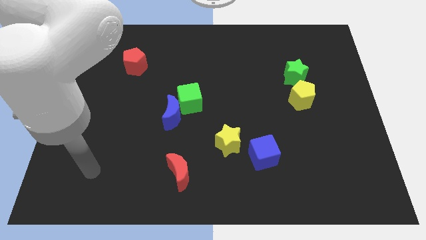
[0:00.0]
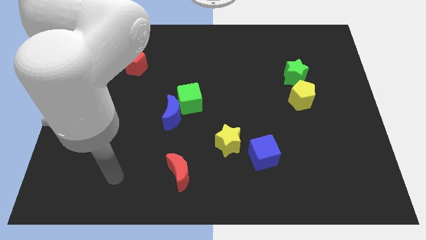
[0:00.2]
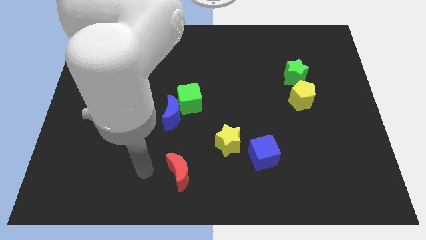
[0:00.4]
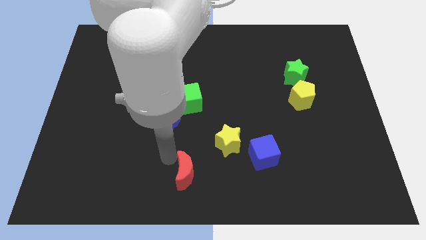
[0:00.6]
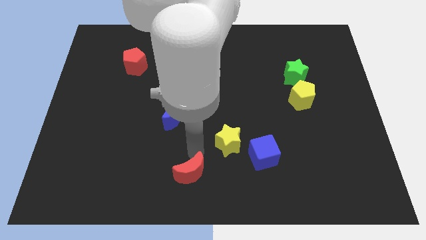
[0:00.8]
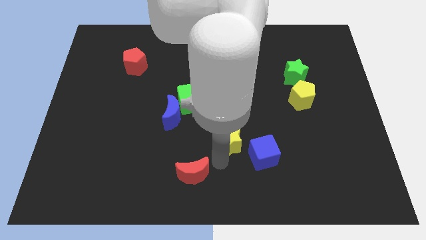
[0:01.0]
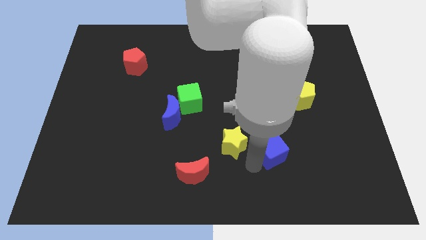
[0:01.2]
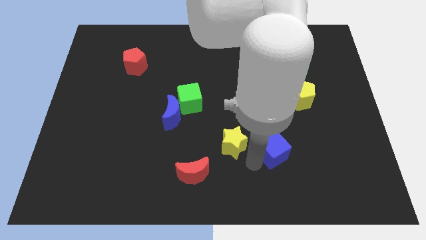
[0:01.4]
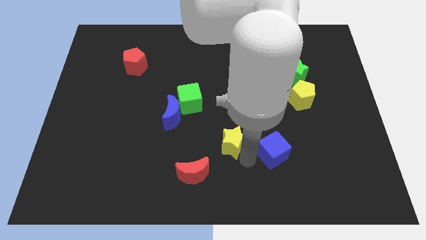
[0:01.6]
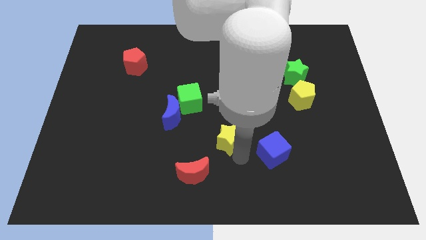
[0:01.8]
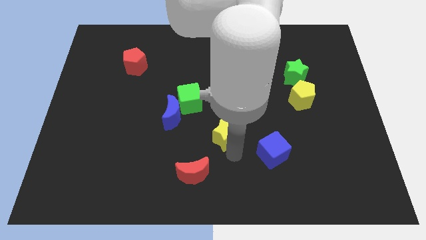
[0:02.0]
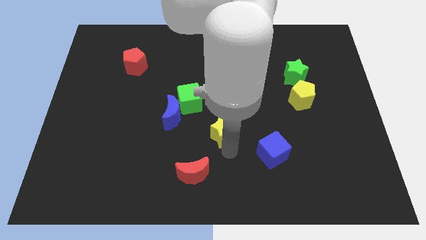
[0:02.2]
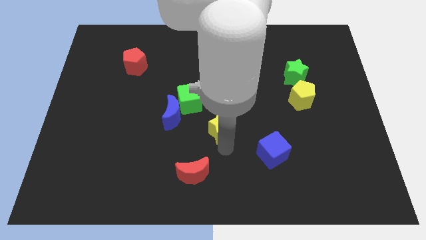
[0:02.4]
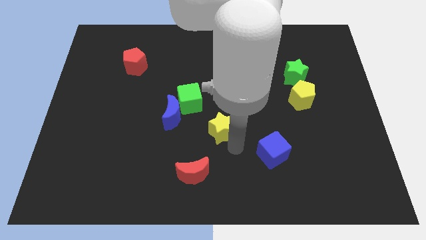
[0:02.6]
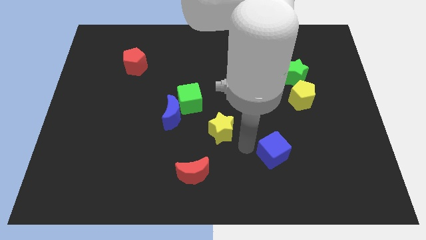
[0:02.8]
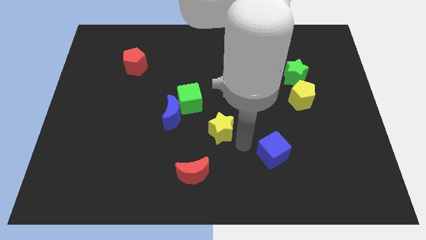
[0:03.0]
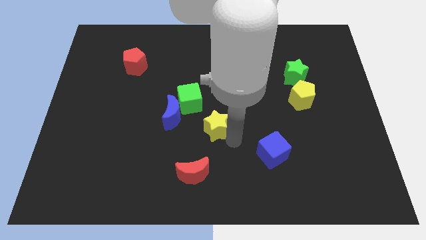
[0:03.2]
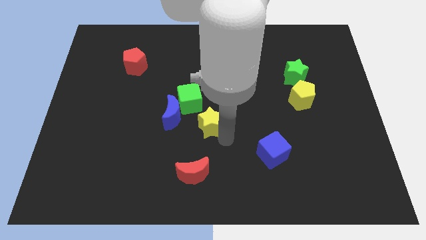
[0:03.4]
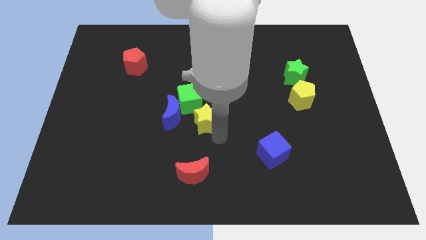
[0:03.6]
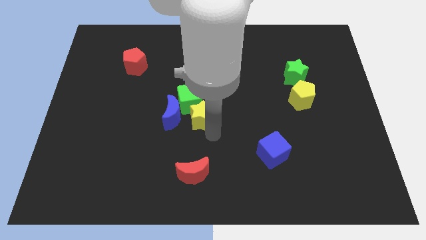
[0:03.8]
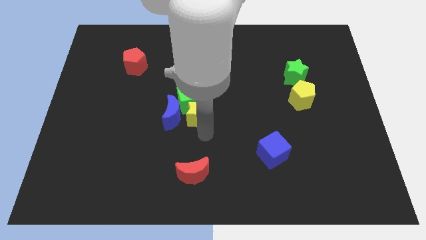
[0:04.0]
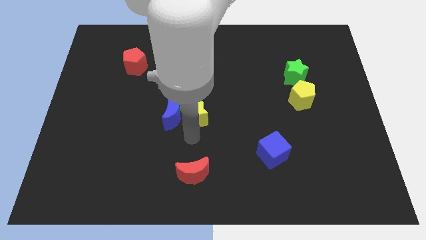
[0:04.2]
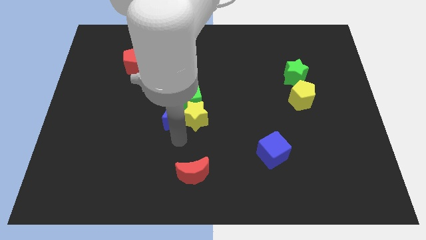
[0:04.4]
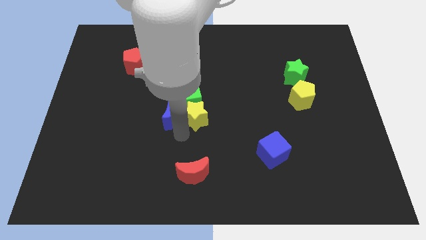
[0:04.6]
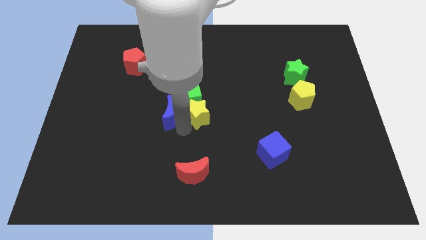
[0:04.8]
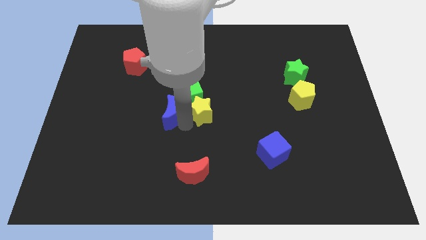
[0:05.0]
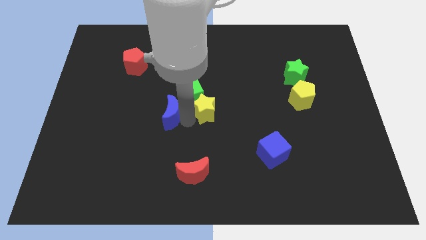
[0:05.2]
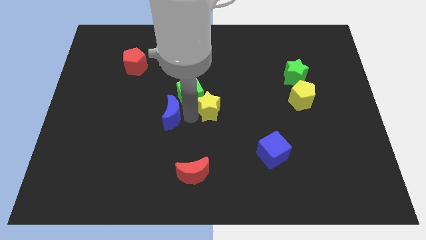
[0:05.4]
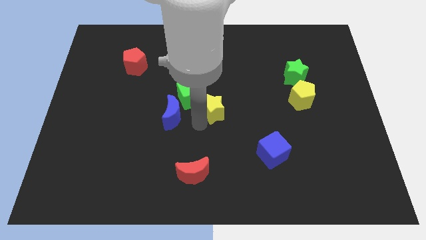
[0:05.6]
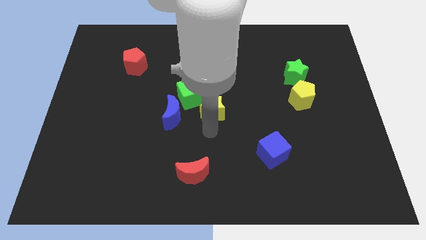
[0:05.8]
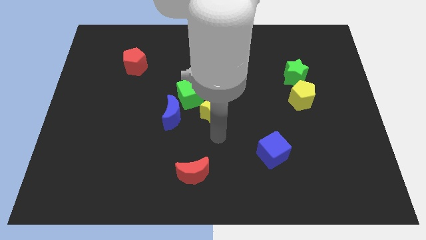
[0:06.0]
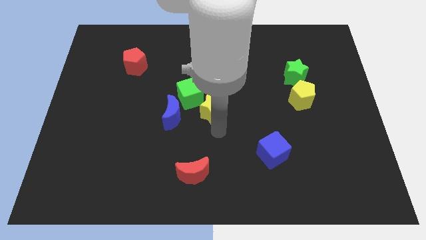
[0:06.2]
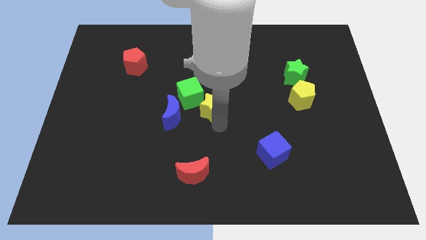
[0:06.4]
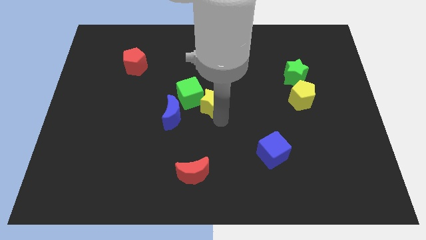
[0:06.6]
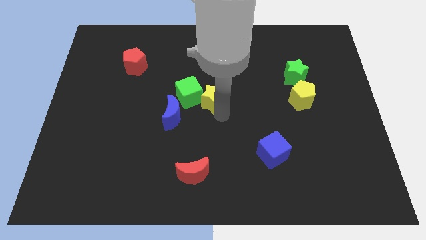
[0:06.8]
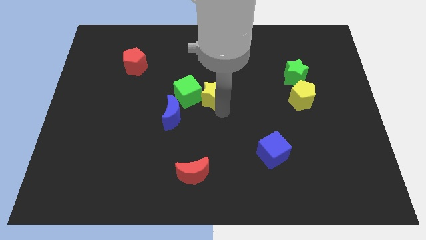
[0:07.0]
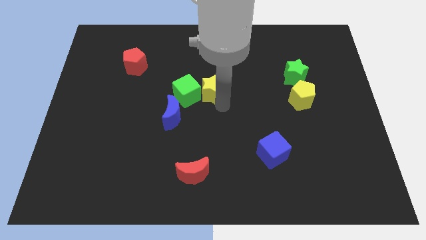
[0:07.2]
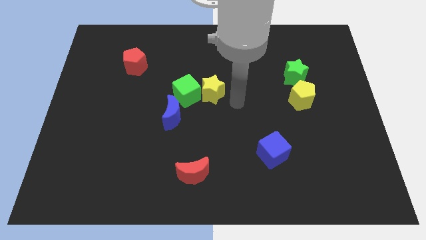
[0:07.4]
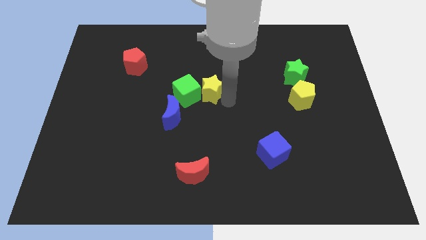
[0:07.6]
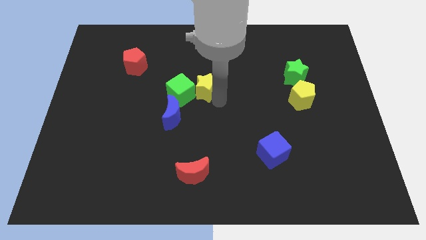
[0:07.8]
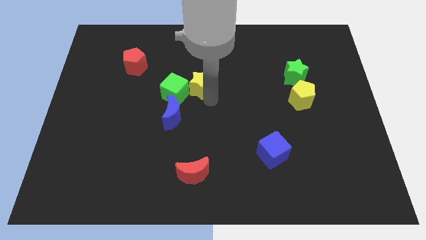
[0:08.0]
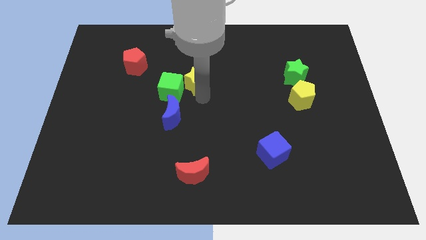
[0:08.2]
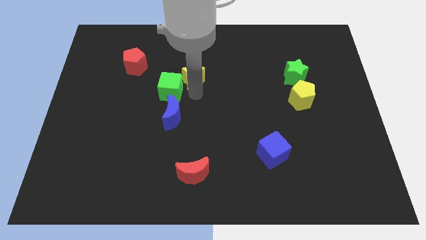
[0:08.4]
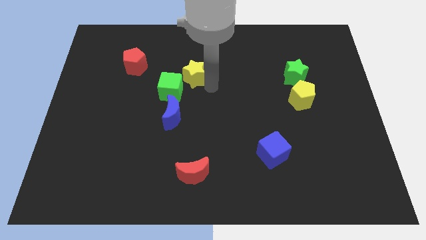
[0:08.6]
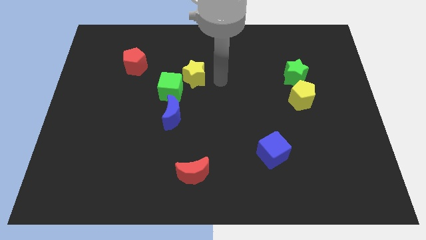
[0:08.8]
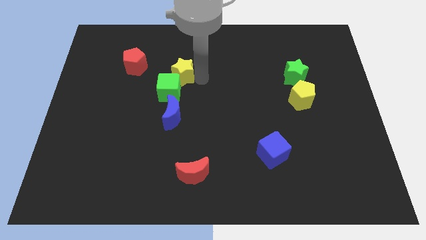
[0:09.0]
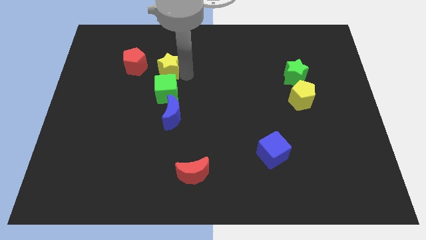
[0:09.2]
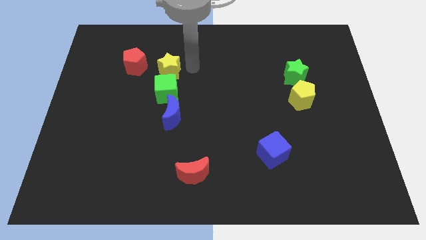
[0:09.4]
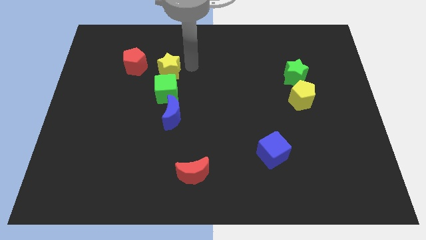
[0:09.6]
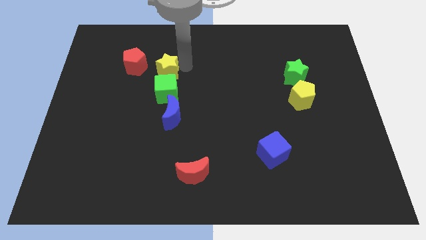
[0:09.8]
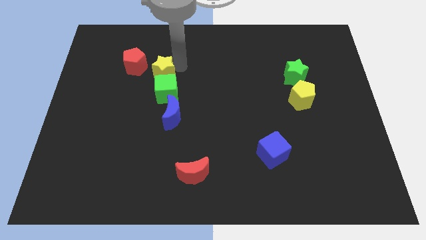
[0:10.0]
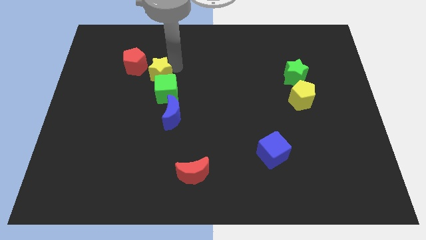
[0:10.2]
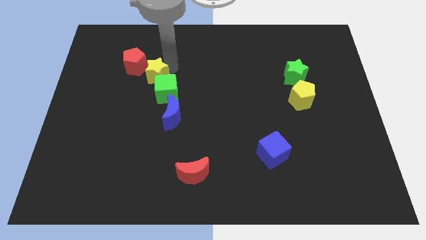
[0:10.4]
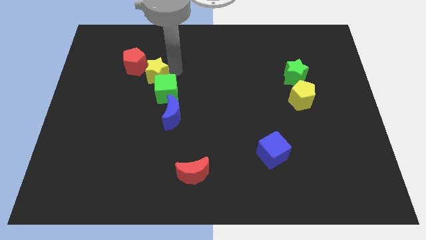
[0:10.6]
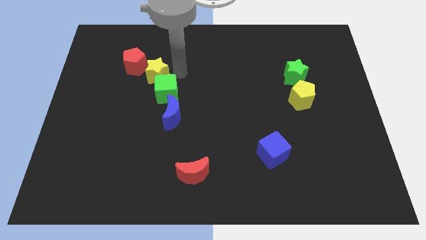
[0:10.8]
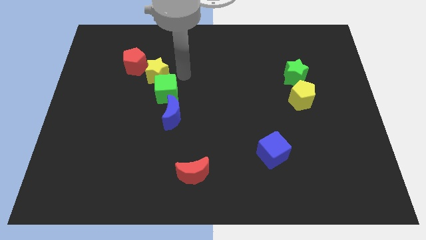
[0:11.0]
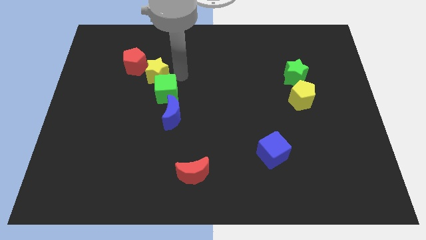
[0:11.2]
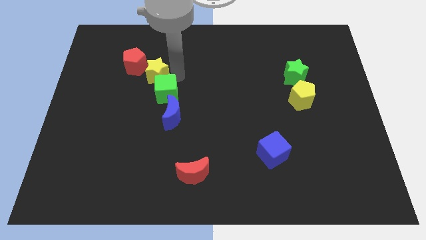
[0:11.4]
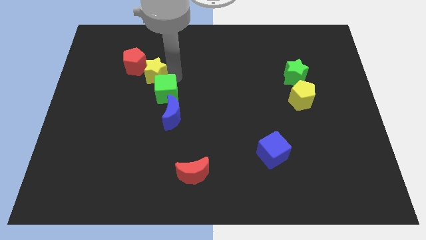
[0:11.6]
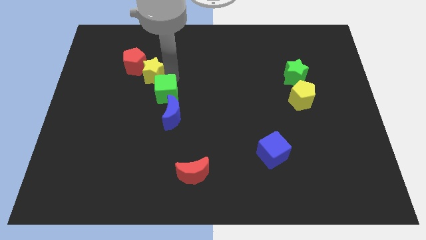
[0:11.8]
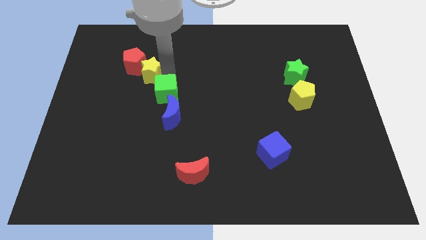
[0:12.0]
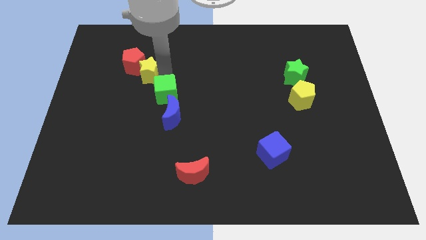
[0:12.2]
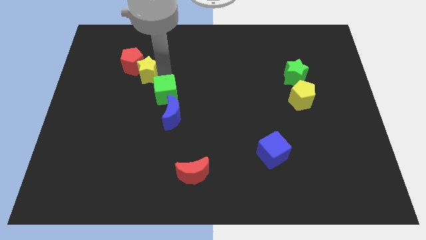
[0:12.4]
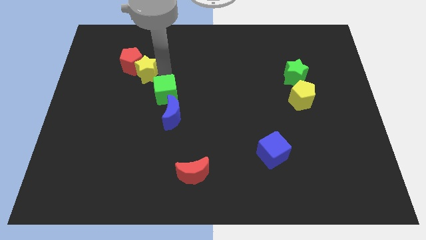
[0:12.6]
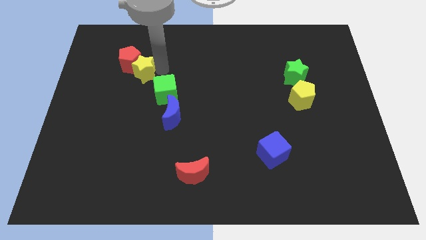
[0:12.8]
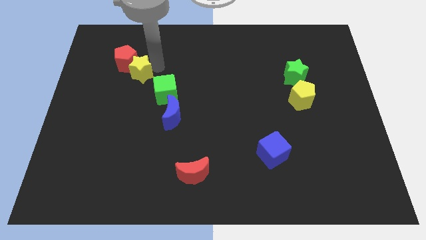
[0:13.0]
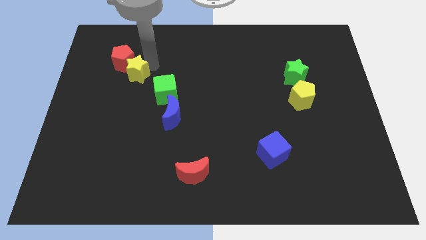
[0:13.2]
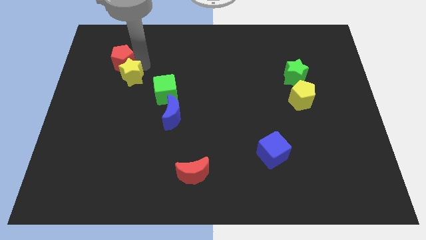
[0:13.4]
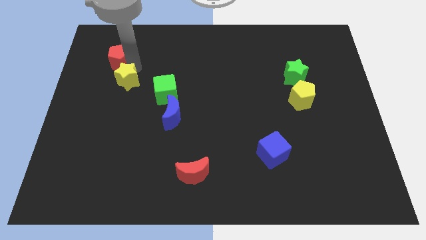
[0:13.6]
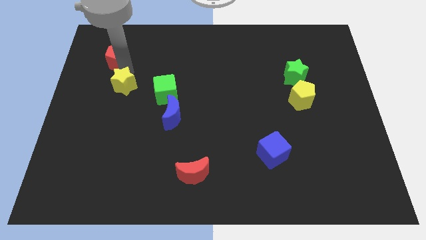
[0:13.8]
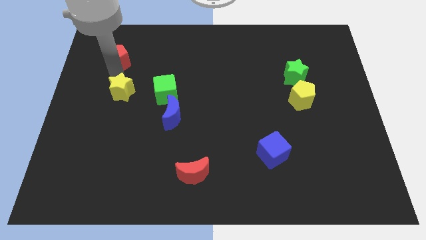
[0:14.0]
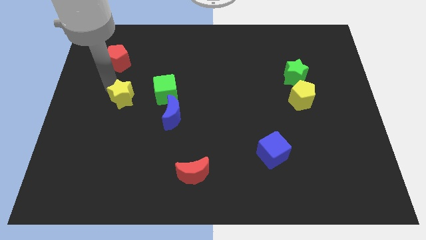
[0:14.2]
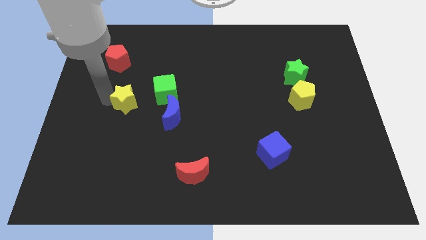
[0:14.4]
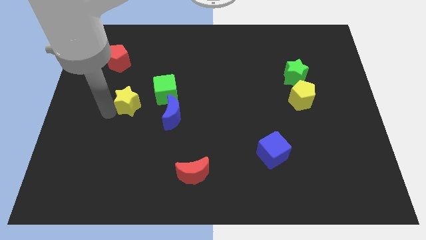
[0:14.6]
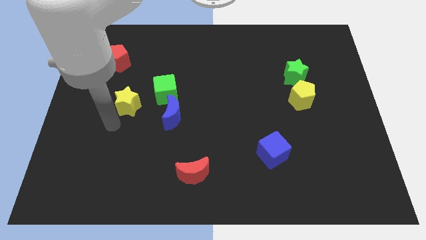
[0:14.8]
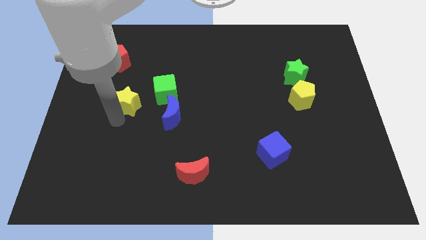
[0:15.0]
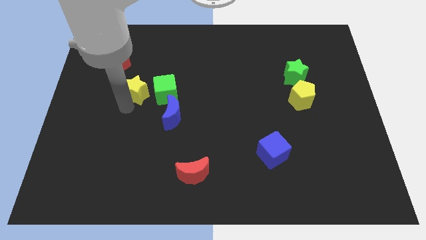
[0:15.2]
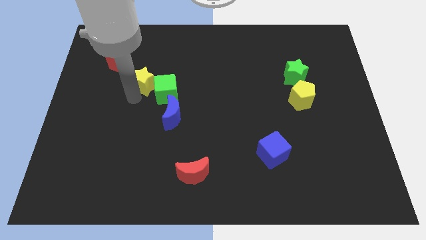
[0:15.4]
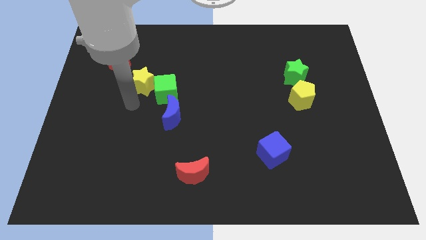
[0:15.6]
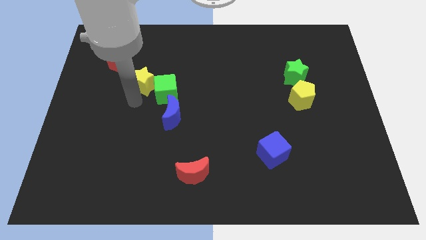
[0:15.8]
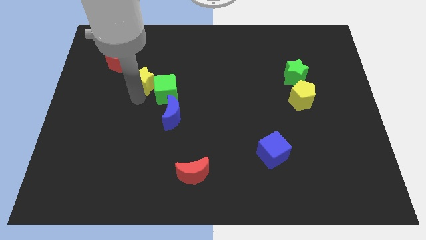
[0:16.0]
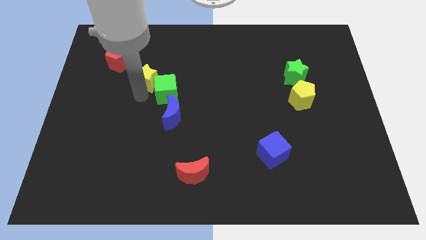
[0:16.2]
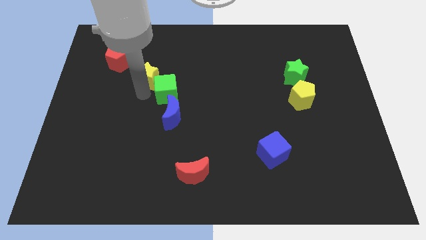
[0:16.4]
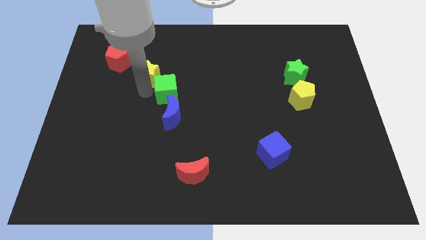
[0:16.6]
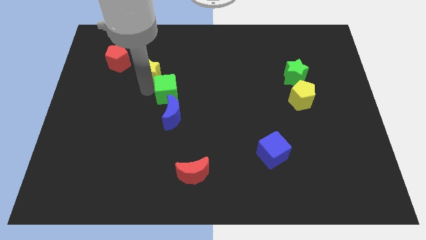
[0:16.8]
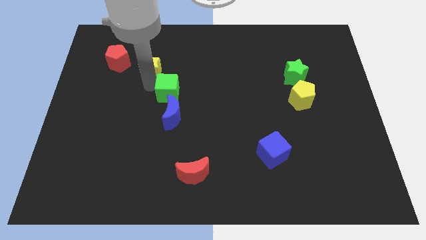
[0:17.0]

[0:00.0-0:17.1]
put the yellow star to the top left of the green cube
